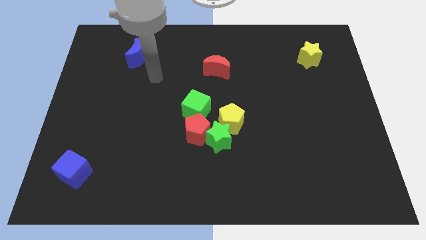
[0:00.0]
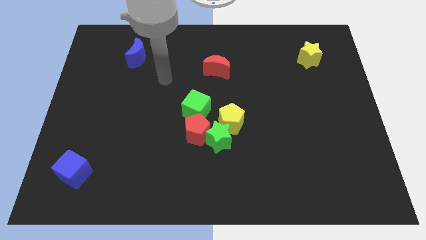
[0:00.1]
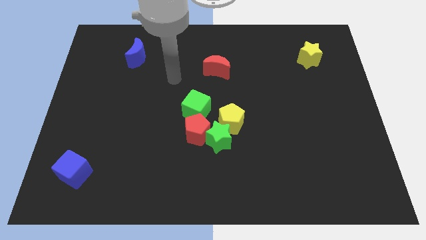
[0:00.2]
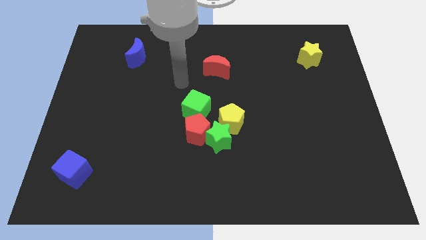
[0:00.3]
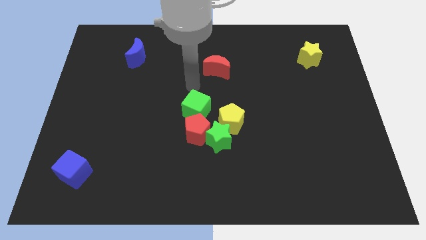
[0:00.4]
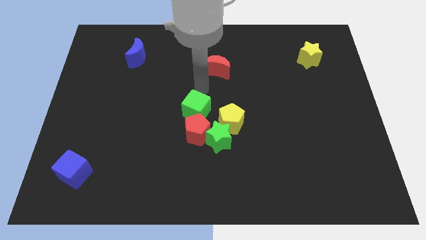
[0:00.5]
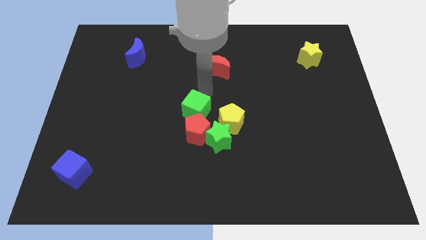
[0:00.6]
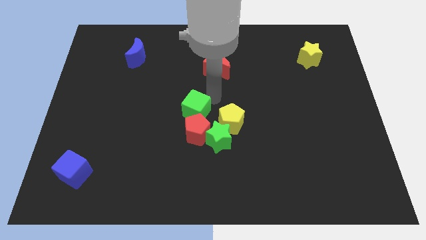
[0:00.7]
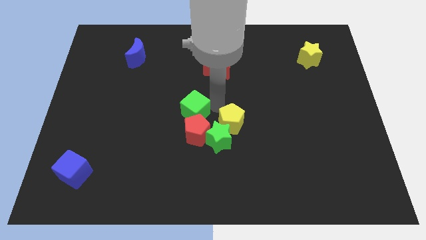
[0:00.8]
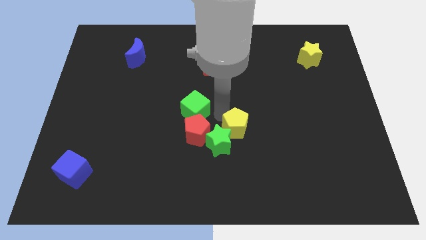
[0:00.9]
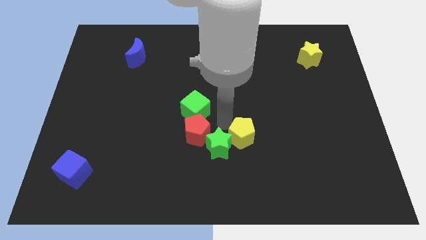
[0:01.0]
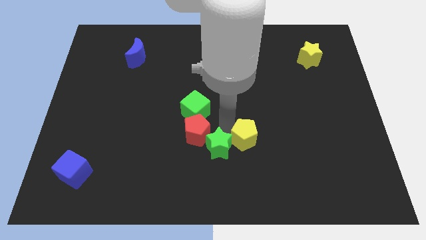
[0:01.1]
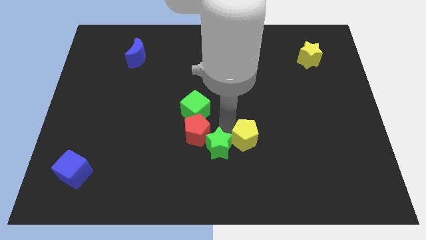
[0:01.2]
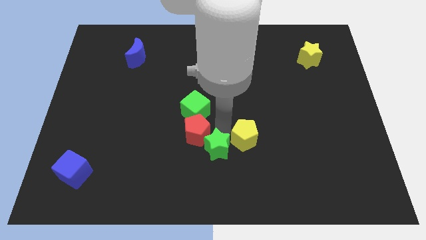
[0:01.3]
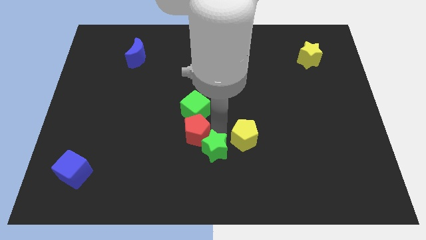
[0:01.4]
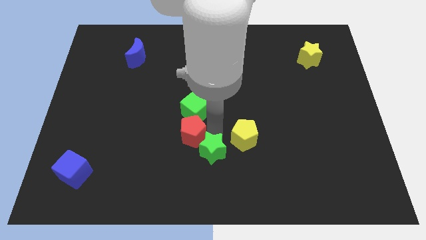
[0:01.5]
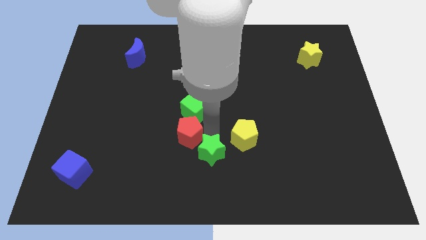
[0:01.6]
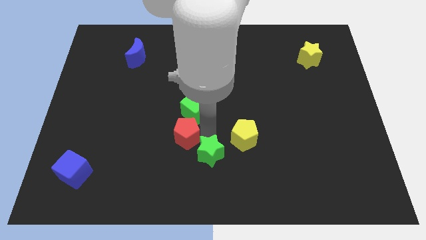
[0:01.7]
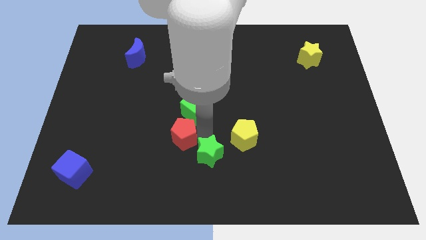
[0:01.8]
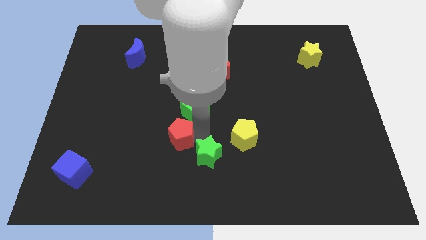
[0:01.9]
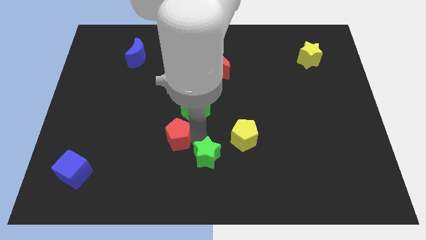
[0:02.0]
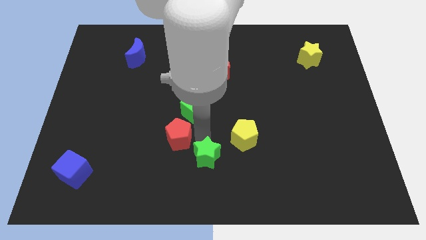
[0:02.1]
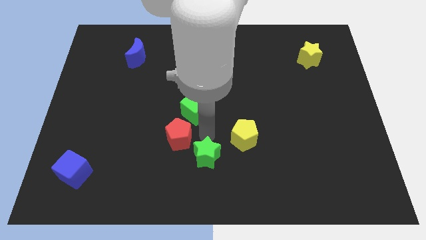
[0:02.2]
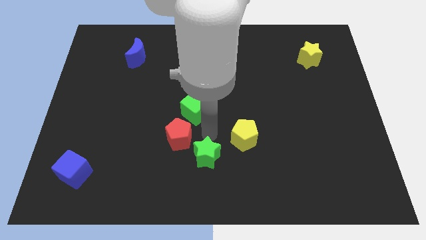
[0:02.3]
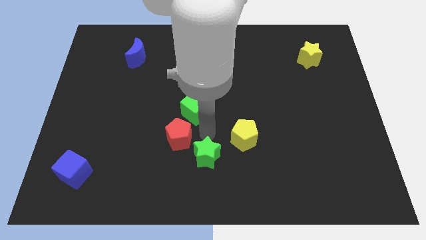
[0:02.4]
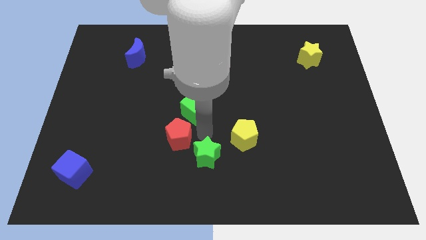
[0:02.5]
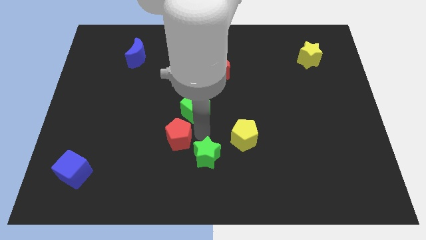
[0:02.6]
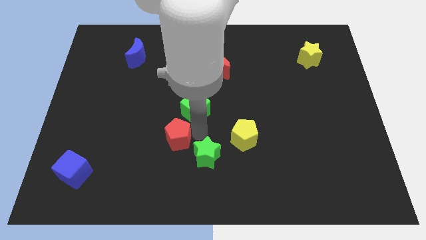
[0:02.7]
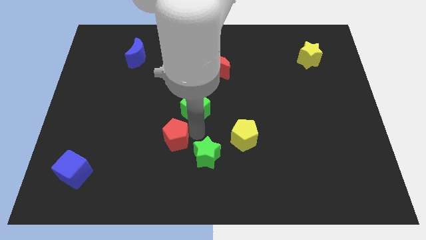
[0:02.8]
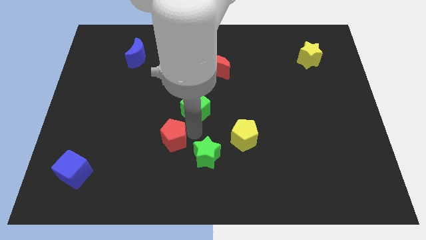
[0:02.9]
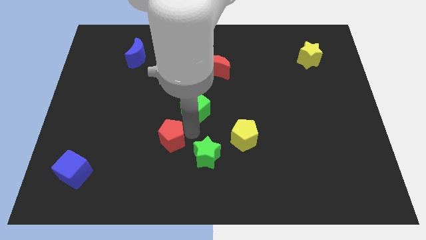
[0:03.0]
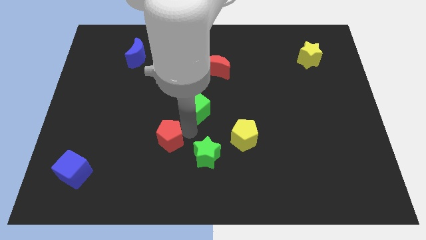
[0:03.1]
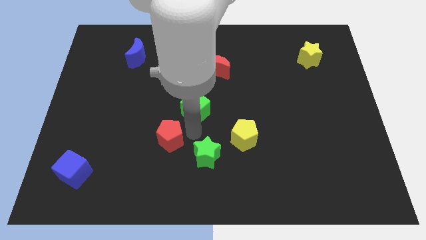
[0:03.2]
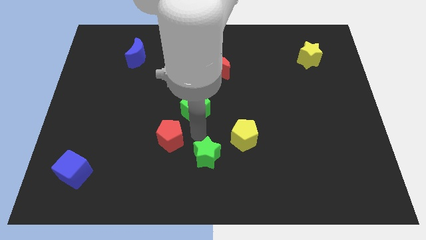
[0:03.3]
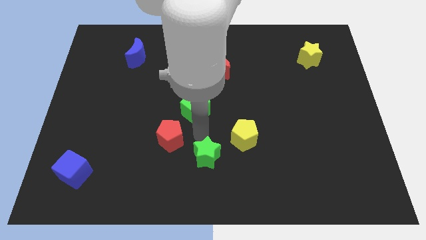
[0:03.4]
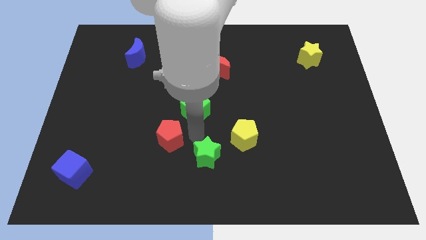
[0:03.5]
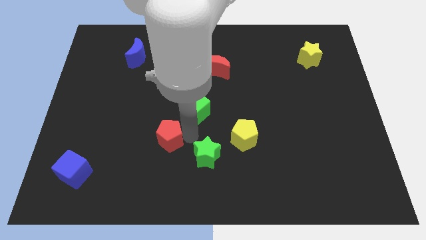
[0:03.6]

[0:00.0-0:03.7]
pull the red pentagon apart from the group

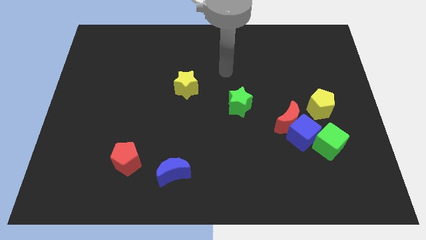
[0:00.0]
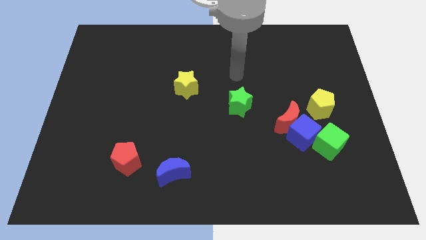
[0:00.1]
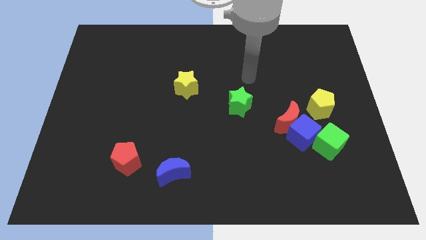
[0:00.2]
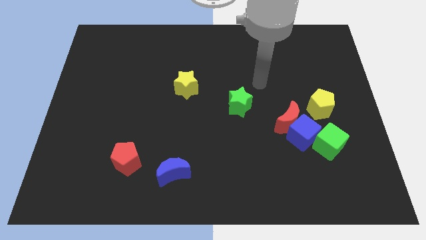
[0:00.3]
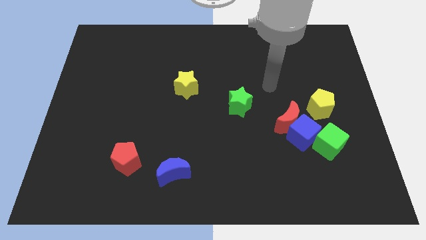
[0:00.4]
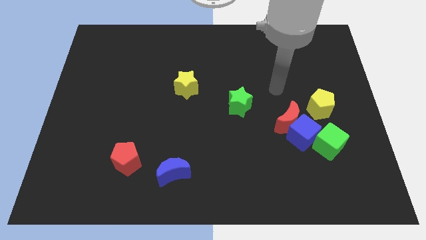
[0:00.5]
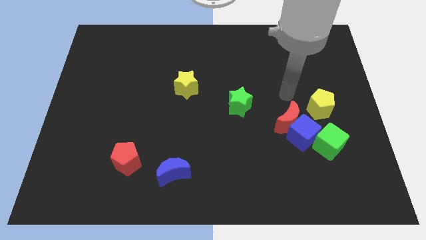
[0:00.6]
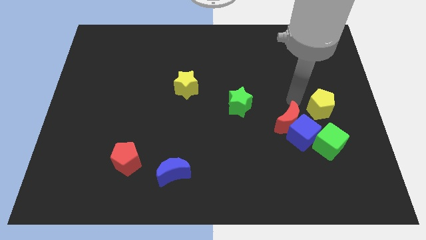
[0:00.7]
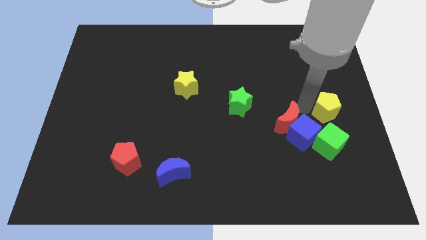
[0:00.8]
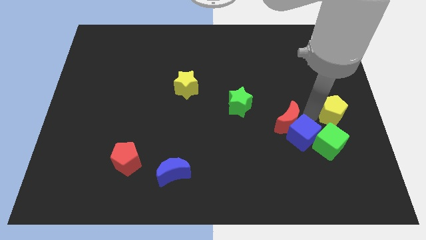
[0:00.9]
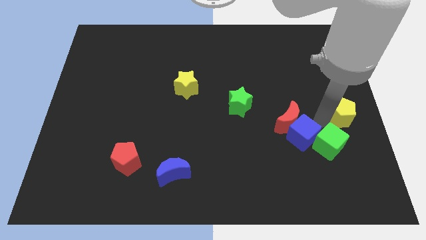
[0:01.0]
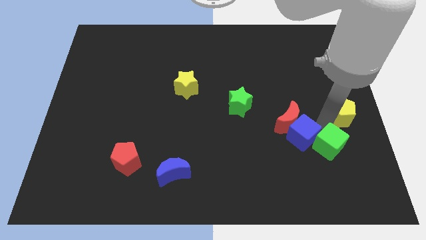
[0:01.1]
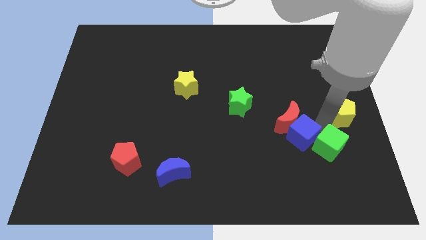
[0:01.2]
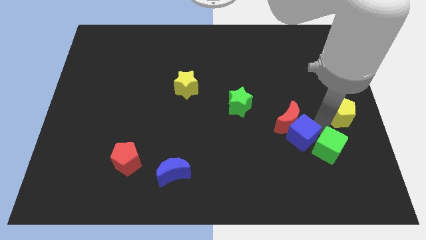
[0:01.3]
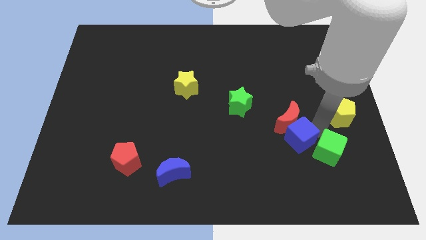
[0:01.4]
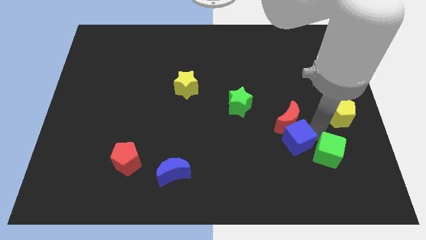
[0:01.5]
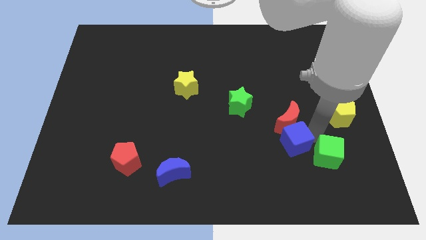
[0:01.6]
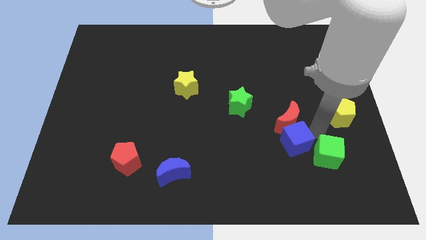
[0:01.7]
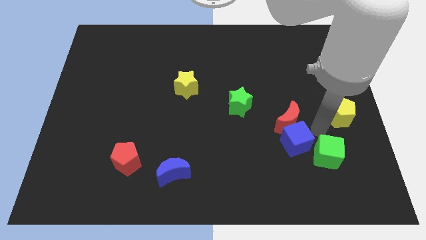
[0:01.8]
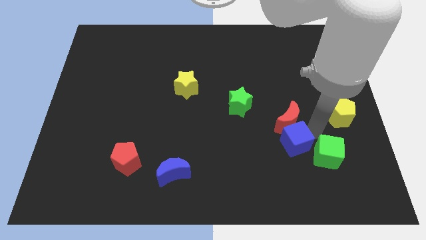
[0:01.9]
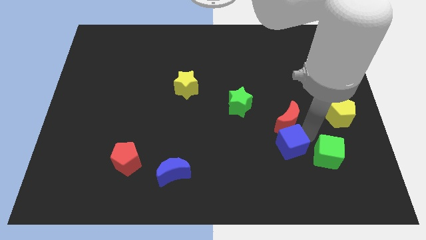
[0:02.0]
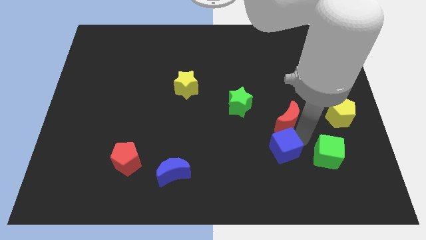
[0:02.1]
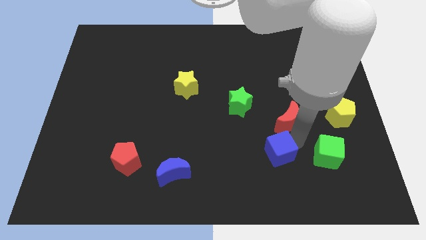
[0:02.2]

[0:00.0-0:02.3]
move the blue cube away from the red moon, green cube, and yellow pentagon

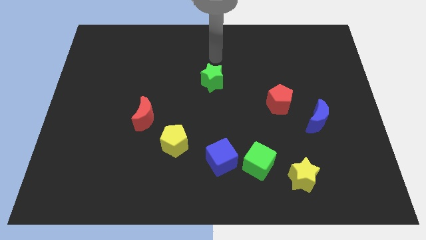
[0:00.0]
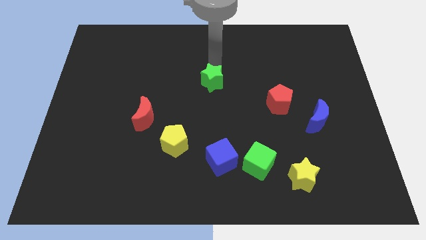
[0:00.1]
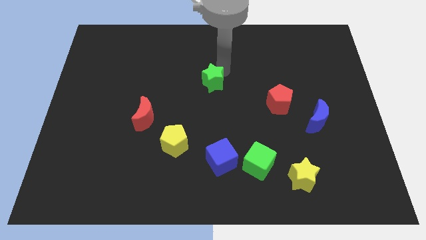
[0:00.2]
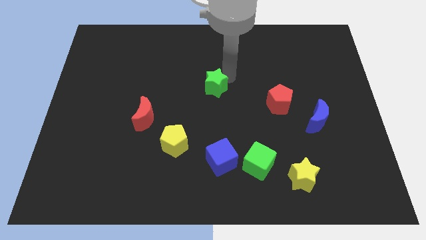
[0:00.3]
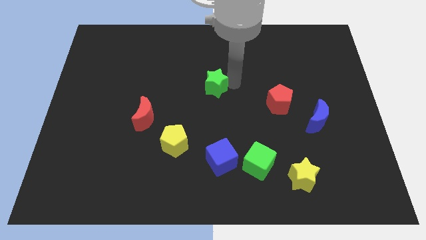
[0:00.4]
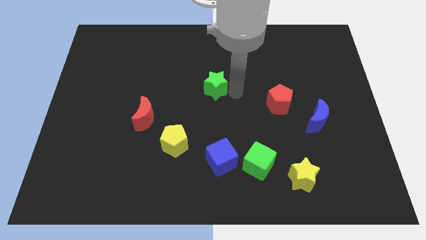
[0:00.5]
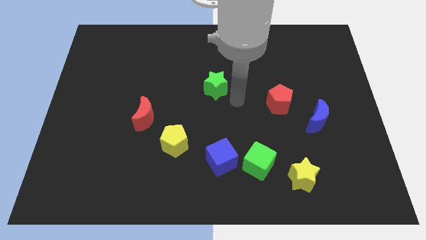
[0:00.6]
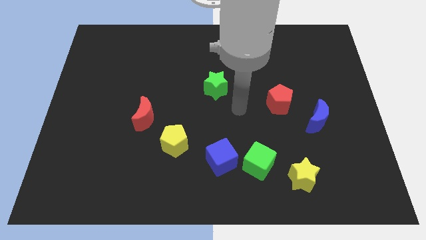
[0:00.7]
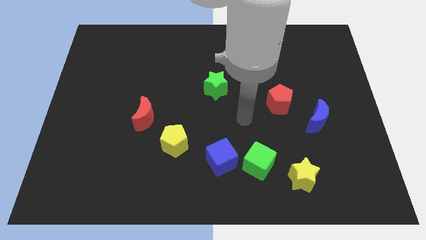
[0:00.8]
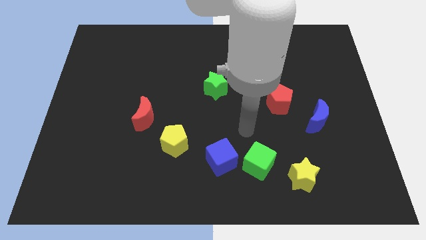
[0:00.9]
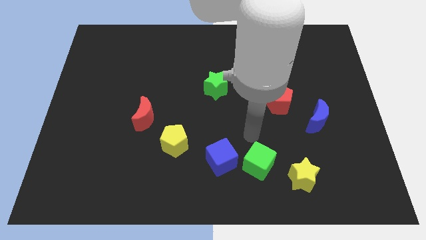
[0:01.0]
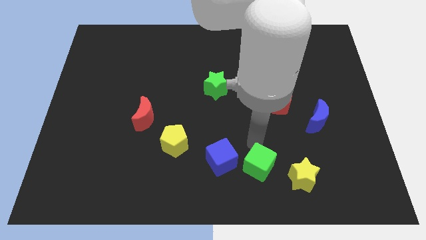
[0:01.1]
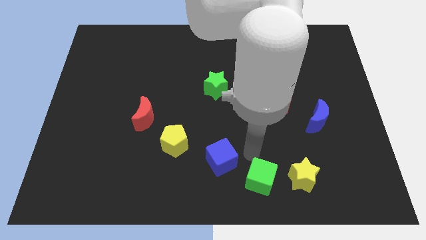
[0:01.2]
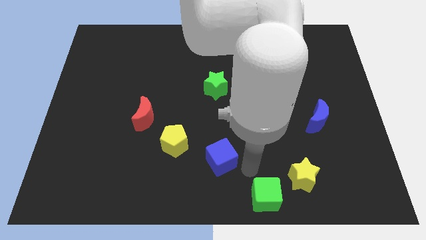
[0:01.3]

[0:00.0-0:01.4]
move the blue cube away from the green cube

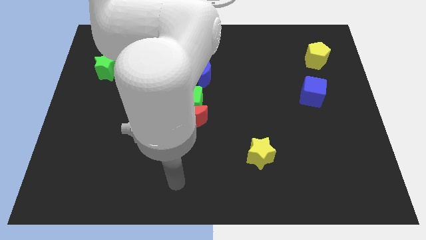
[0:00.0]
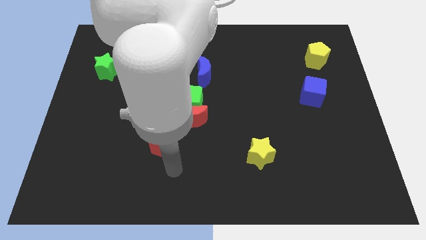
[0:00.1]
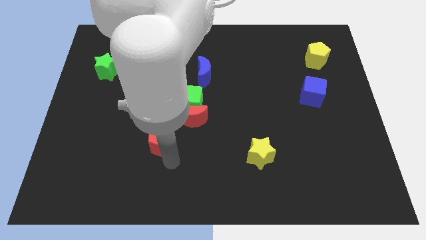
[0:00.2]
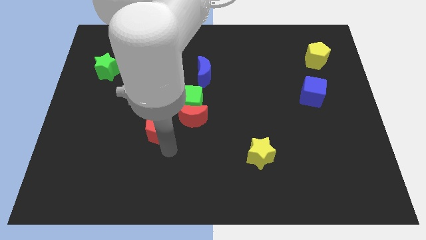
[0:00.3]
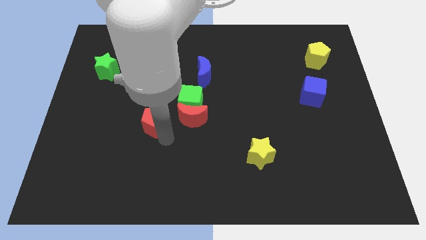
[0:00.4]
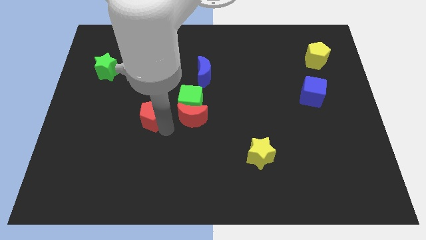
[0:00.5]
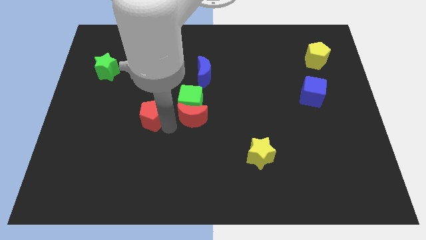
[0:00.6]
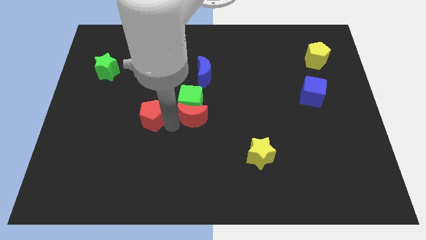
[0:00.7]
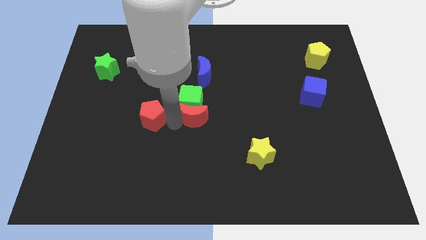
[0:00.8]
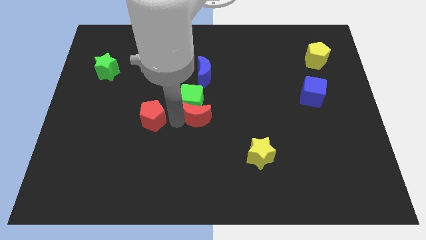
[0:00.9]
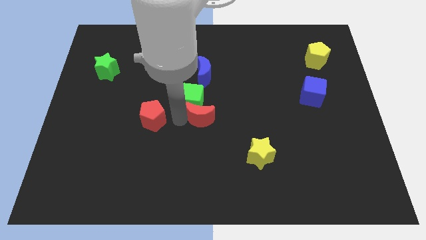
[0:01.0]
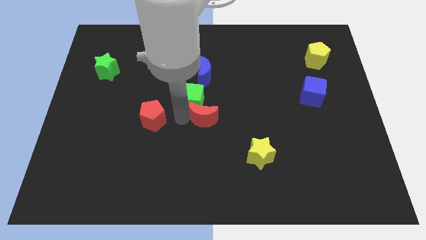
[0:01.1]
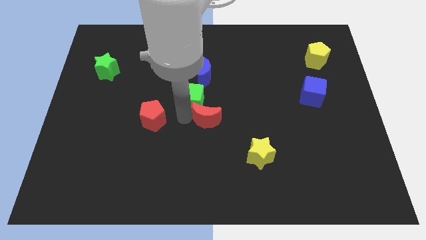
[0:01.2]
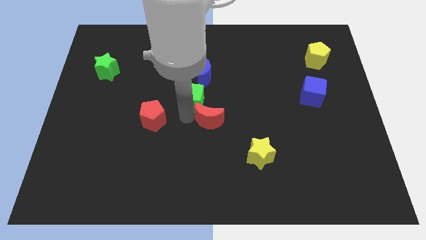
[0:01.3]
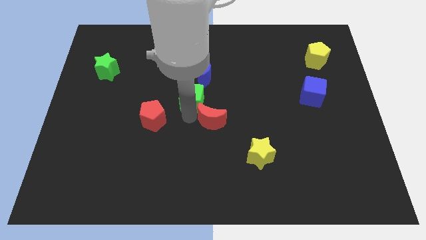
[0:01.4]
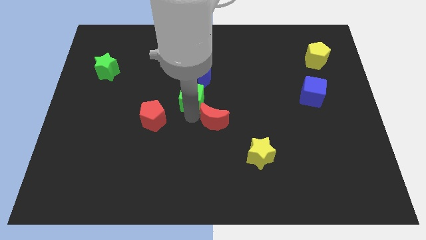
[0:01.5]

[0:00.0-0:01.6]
separate the red moon from the green cube and red pentagon

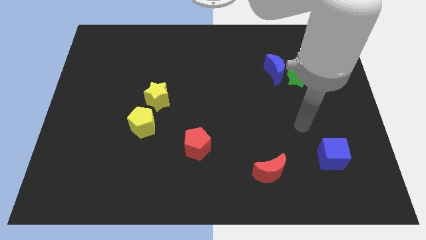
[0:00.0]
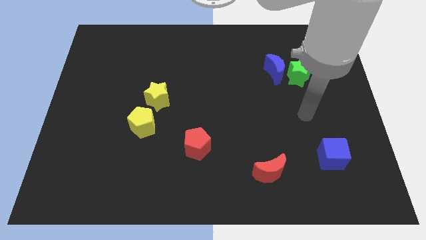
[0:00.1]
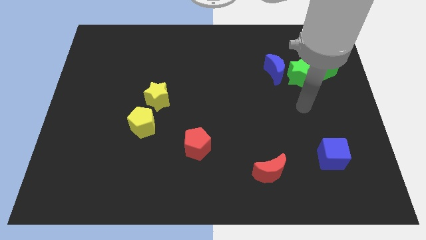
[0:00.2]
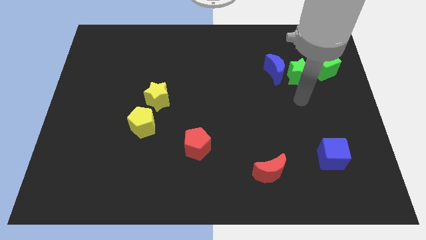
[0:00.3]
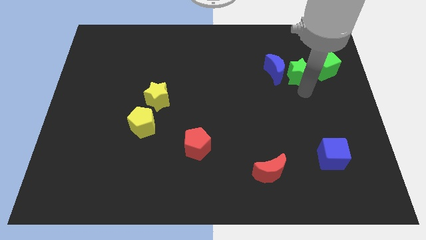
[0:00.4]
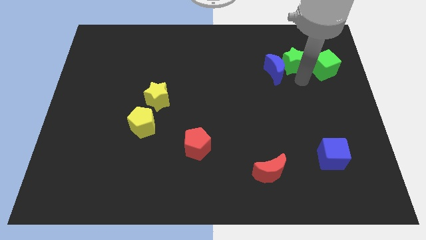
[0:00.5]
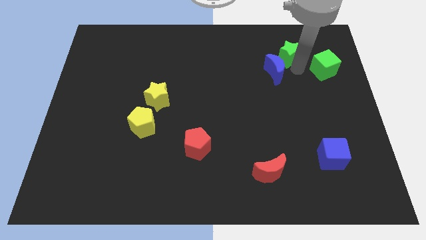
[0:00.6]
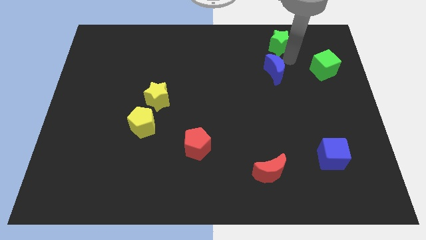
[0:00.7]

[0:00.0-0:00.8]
move the blue moon away from the green star
